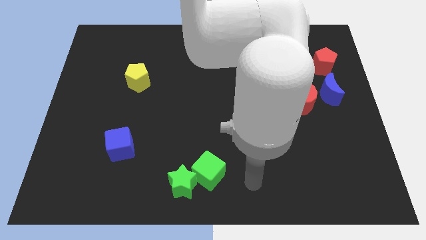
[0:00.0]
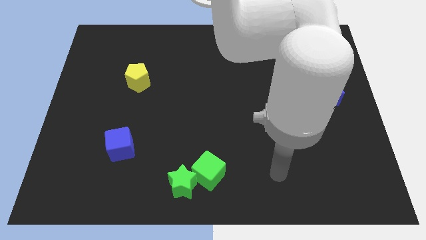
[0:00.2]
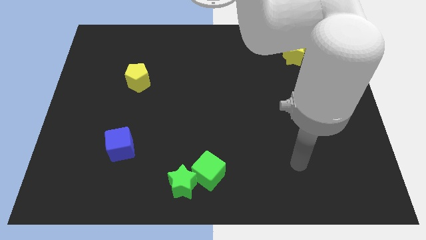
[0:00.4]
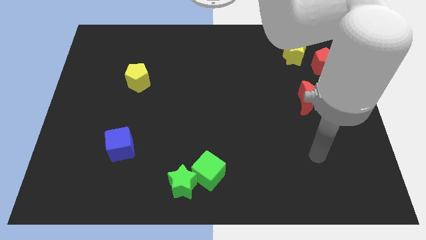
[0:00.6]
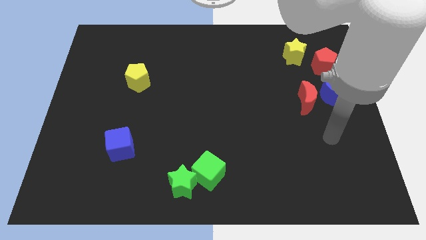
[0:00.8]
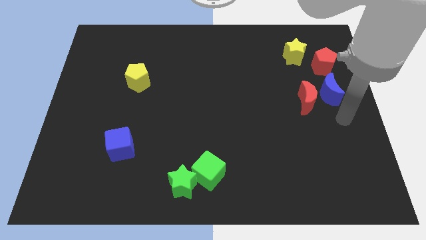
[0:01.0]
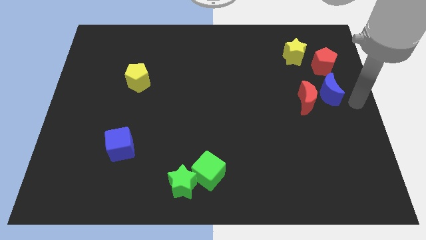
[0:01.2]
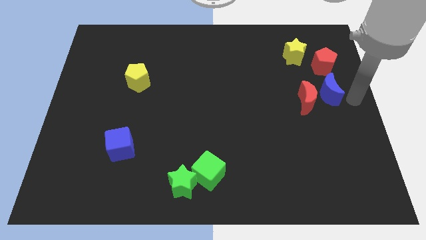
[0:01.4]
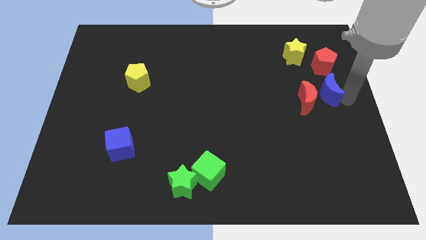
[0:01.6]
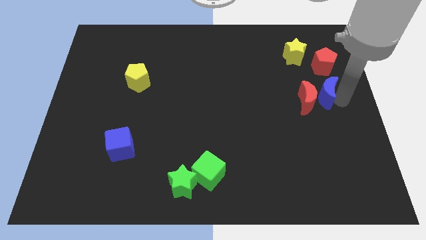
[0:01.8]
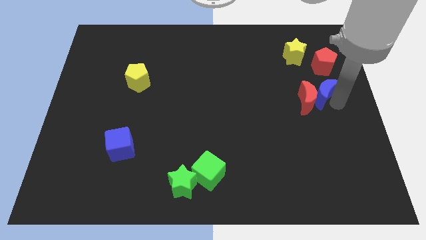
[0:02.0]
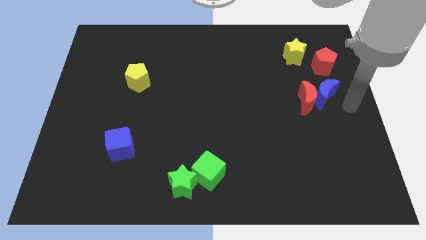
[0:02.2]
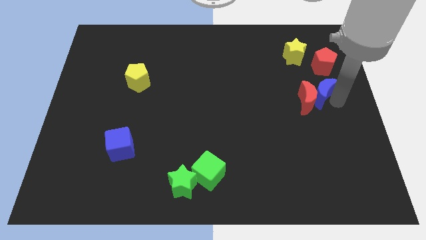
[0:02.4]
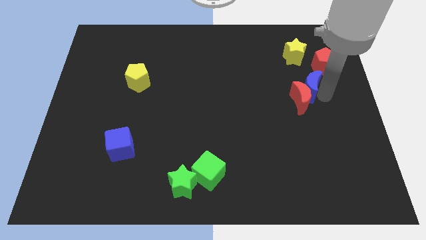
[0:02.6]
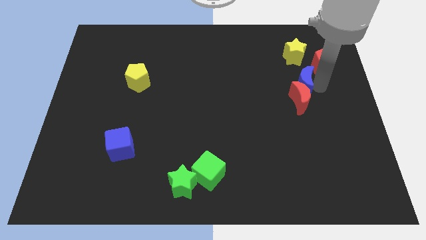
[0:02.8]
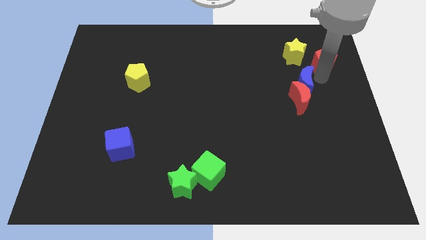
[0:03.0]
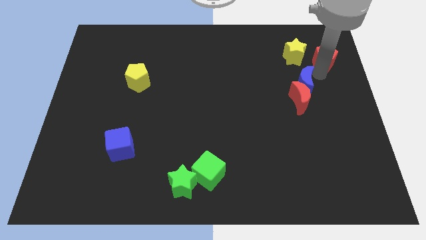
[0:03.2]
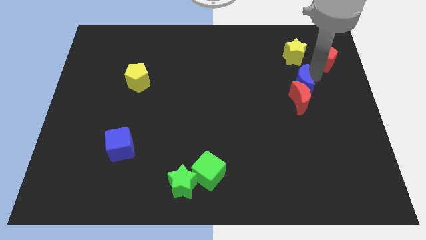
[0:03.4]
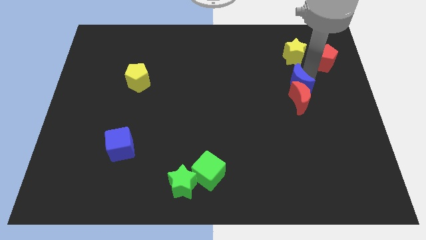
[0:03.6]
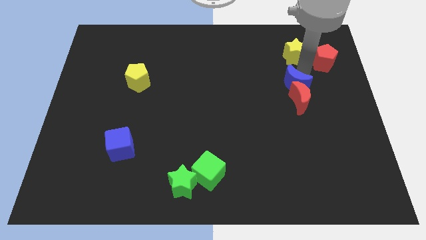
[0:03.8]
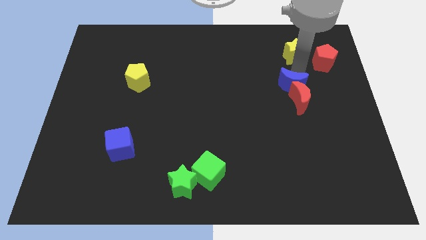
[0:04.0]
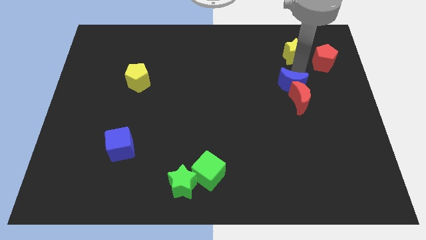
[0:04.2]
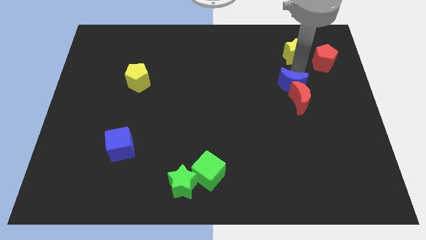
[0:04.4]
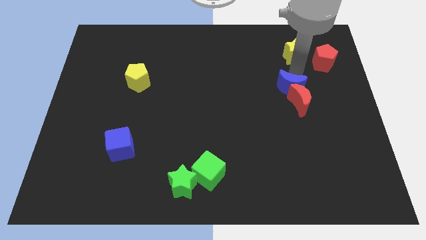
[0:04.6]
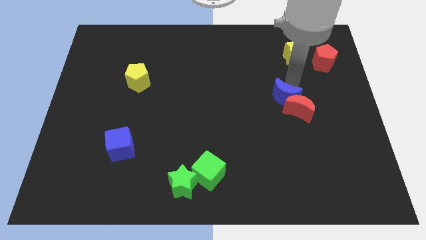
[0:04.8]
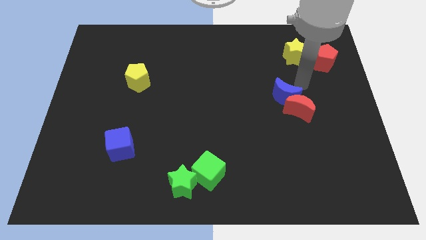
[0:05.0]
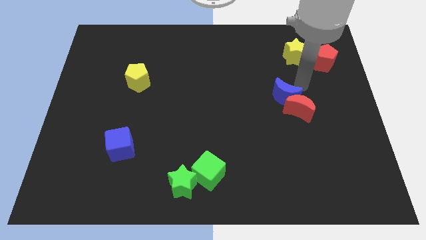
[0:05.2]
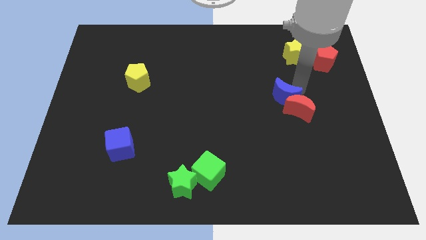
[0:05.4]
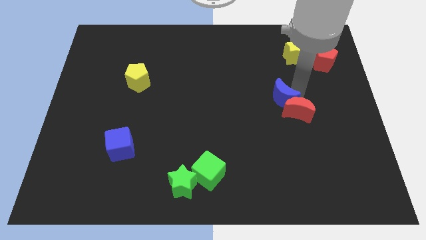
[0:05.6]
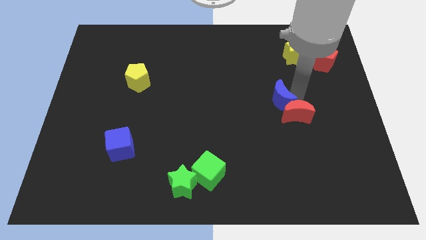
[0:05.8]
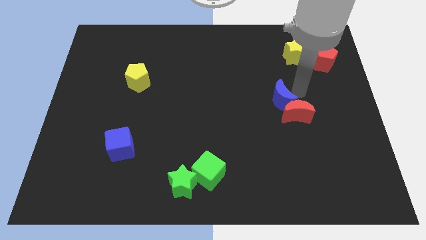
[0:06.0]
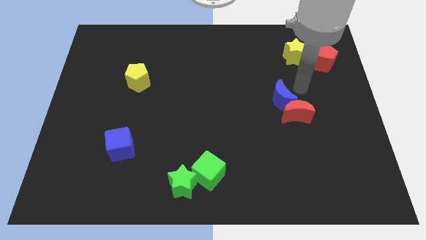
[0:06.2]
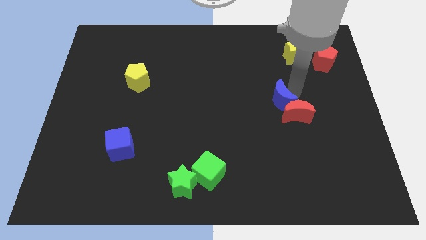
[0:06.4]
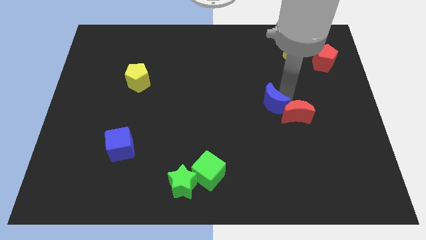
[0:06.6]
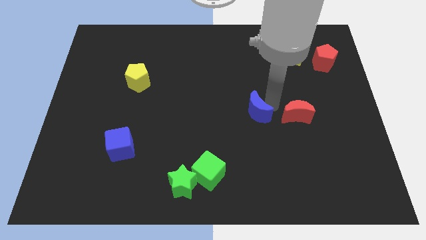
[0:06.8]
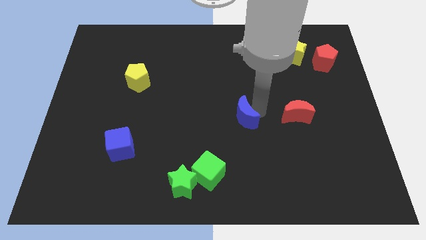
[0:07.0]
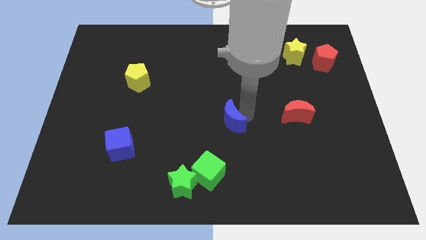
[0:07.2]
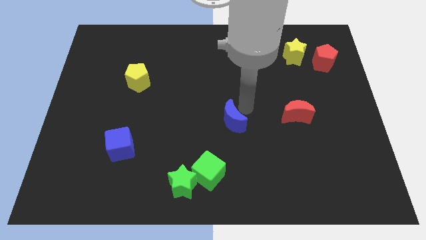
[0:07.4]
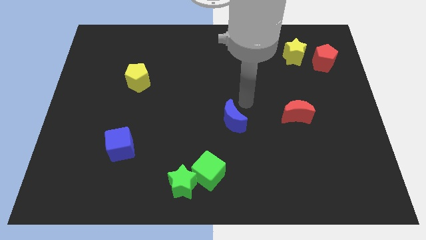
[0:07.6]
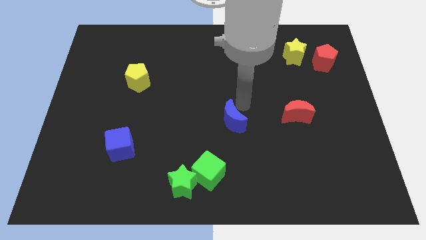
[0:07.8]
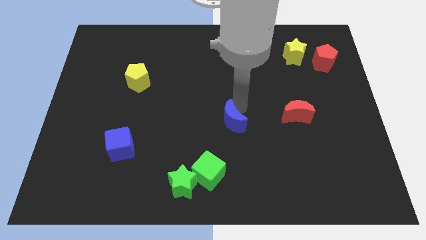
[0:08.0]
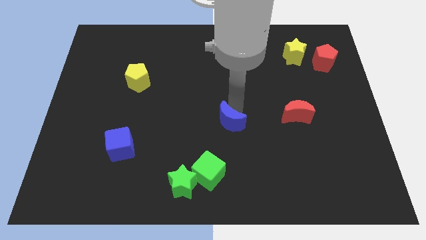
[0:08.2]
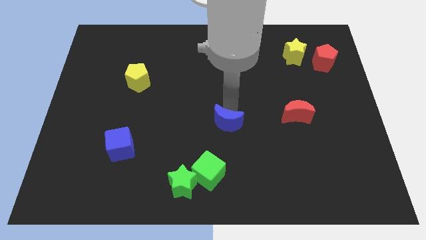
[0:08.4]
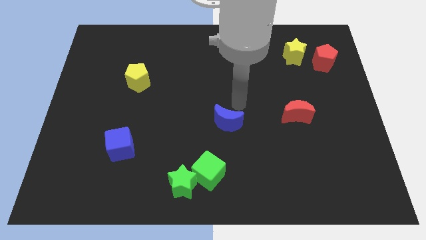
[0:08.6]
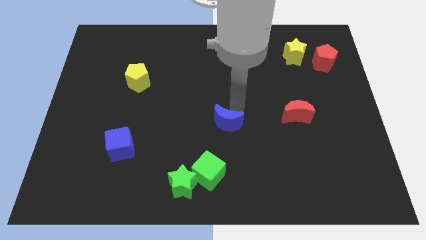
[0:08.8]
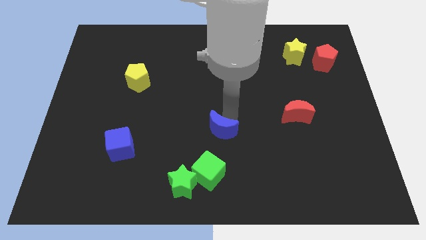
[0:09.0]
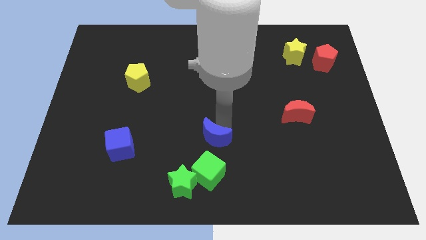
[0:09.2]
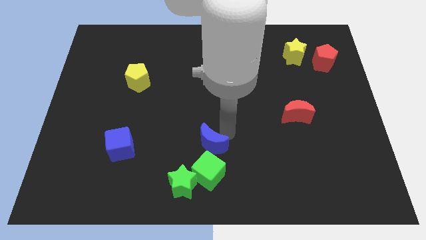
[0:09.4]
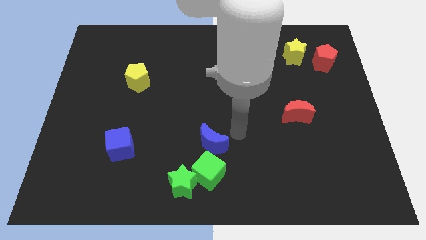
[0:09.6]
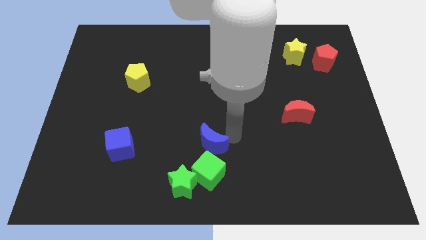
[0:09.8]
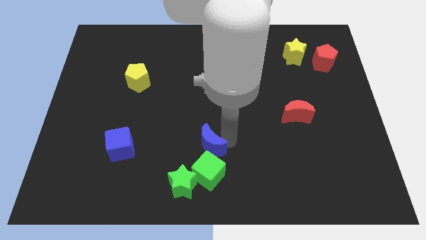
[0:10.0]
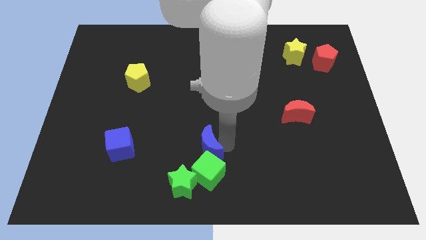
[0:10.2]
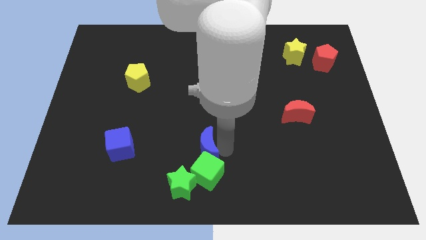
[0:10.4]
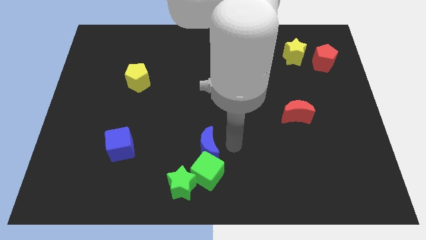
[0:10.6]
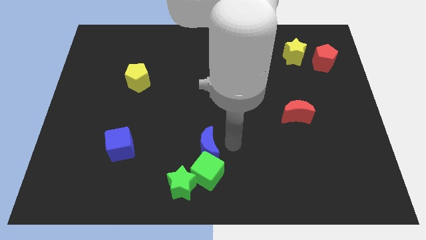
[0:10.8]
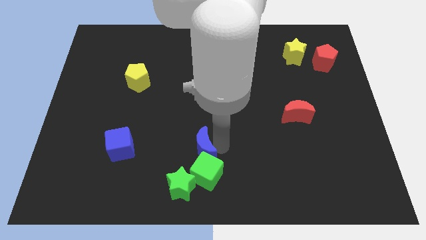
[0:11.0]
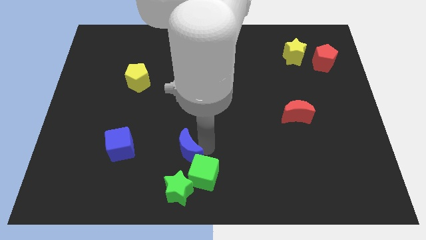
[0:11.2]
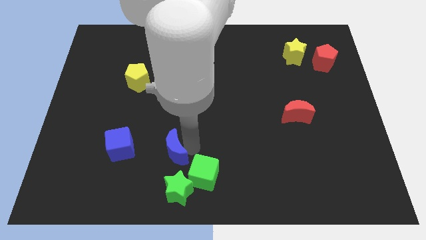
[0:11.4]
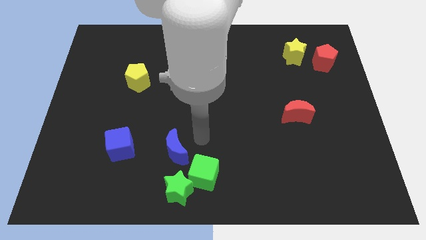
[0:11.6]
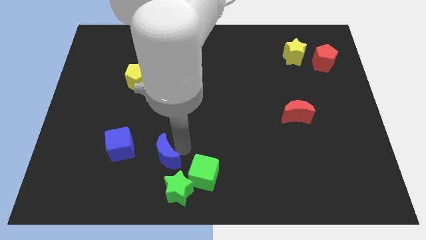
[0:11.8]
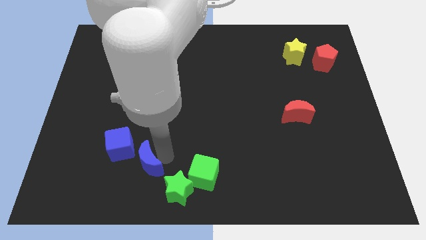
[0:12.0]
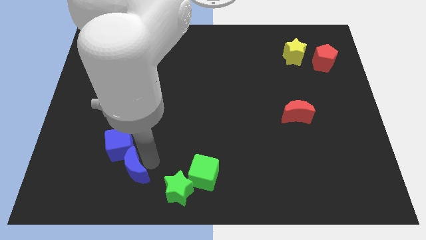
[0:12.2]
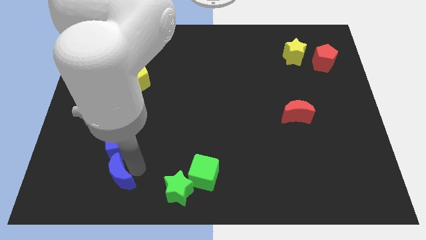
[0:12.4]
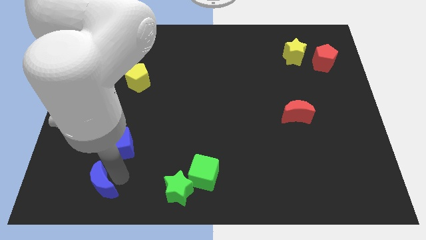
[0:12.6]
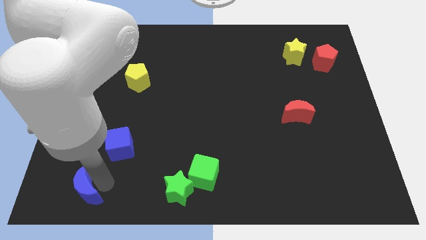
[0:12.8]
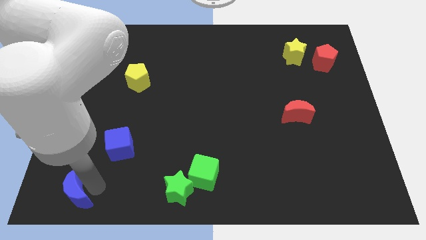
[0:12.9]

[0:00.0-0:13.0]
slide the blue moon to the bottom left of the board

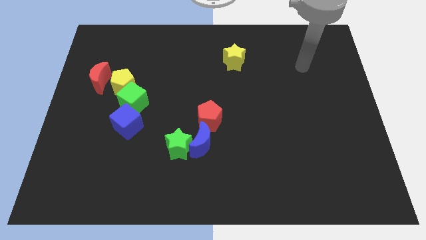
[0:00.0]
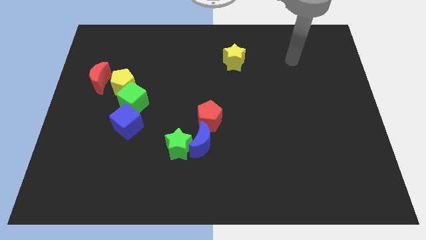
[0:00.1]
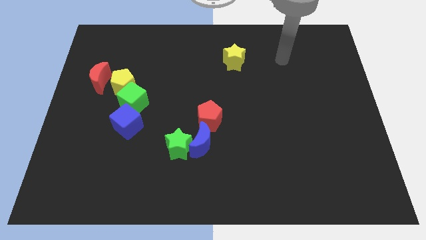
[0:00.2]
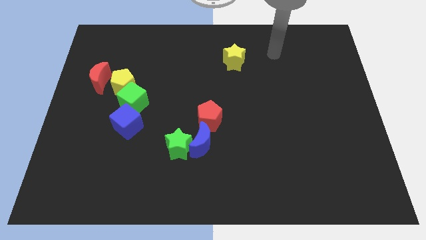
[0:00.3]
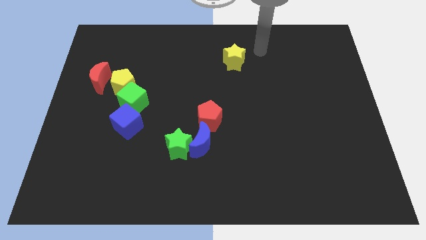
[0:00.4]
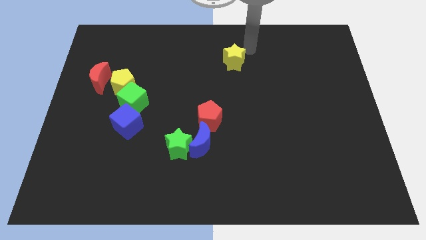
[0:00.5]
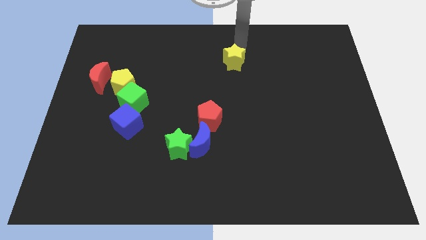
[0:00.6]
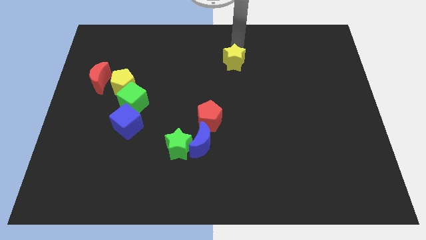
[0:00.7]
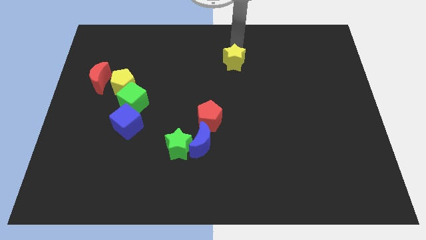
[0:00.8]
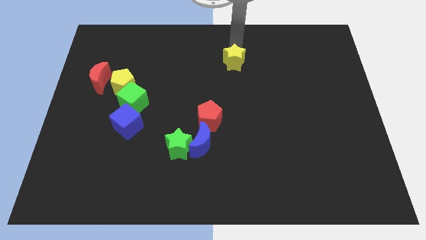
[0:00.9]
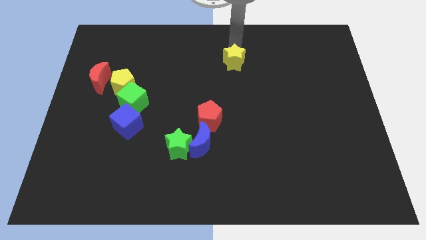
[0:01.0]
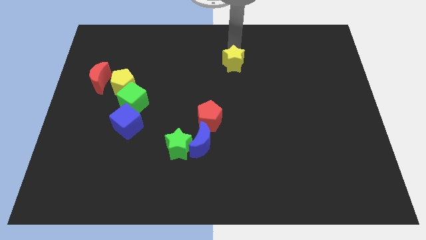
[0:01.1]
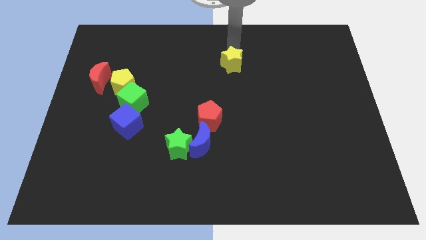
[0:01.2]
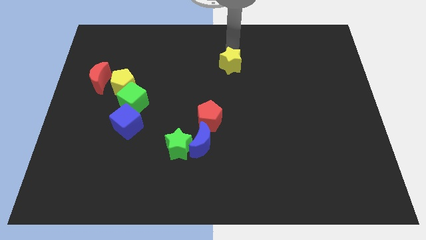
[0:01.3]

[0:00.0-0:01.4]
slide the yellow star to the center of the board
